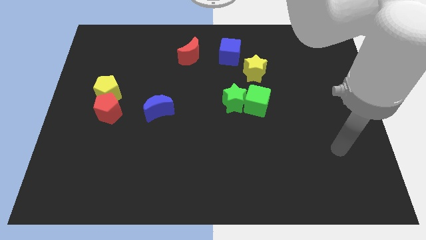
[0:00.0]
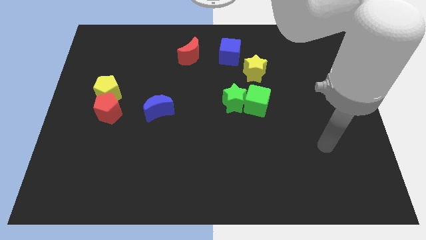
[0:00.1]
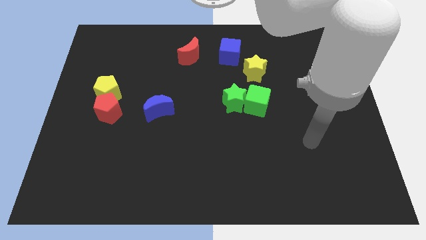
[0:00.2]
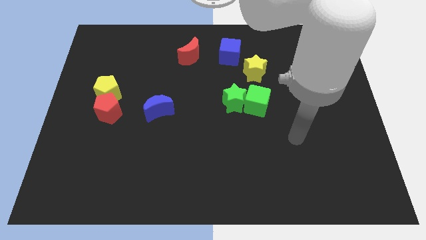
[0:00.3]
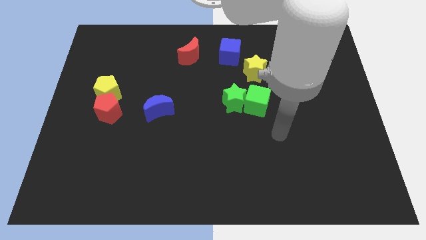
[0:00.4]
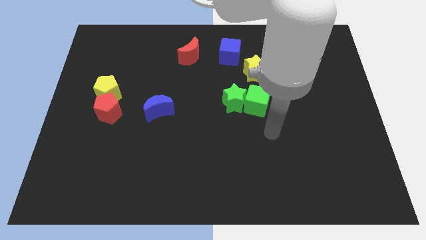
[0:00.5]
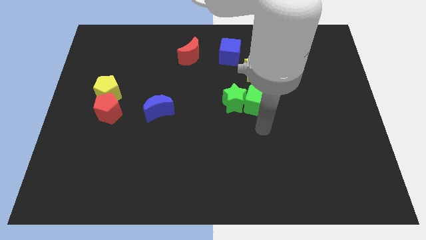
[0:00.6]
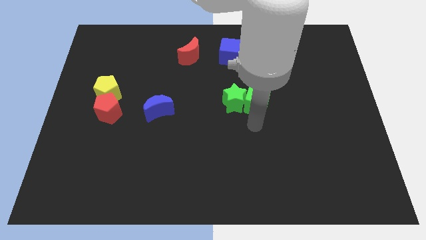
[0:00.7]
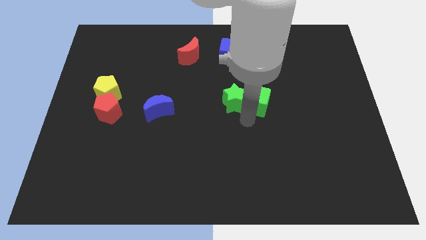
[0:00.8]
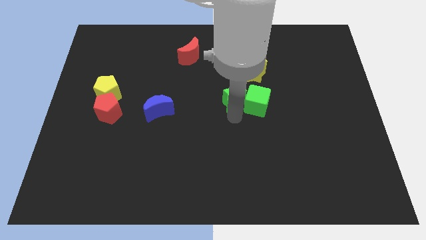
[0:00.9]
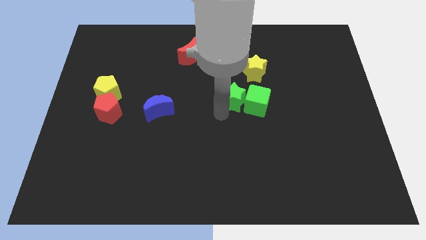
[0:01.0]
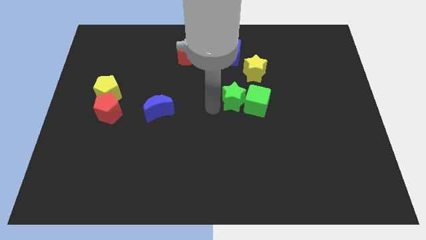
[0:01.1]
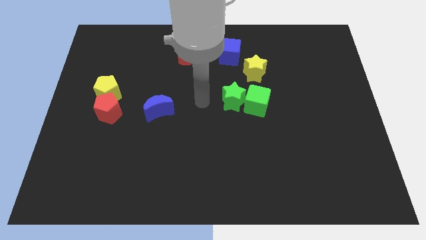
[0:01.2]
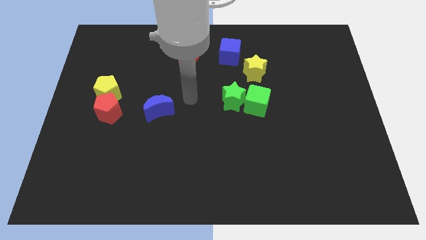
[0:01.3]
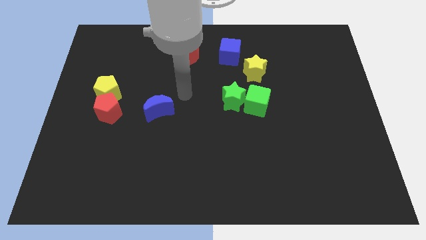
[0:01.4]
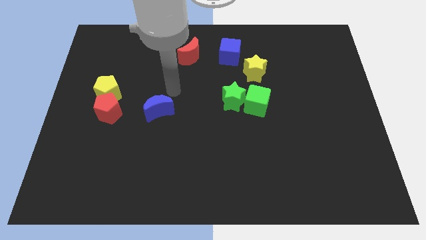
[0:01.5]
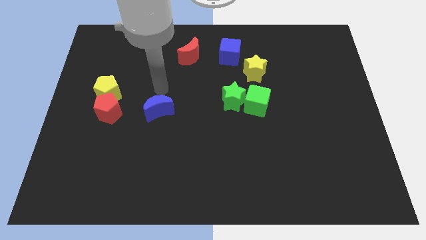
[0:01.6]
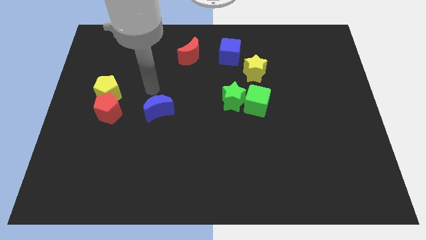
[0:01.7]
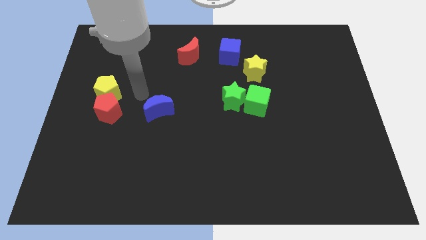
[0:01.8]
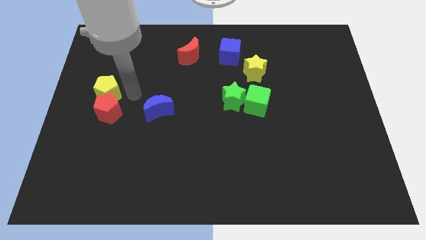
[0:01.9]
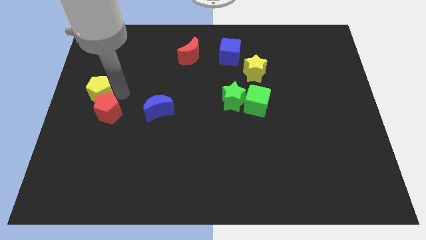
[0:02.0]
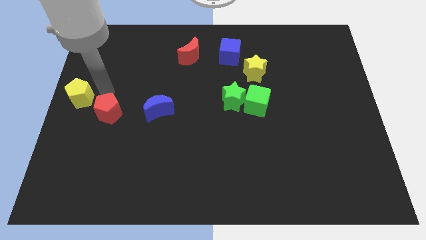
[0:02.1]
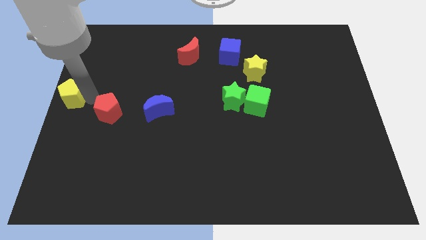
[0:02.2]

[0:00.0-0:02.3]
pull the red pentagon apart from the yellow pentagon

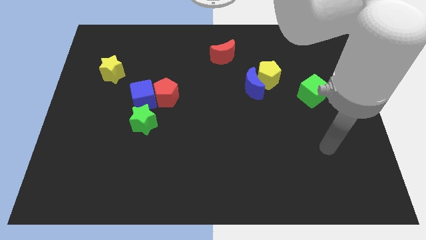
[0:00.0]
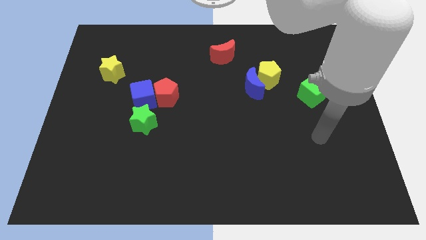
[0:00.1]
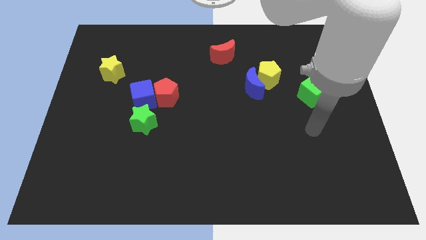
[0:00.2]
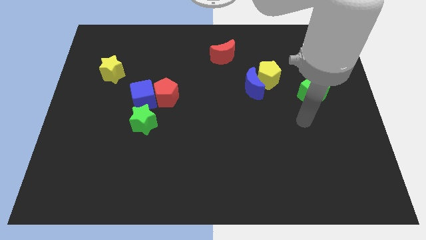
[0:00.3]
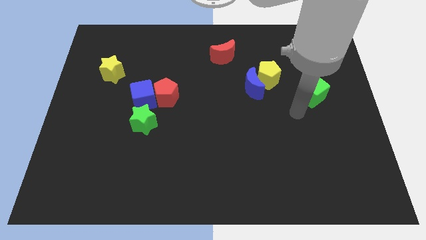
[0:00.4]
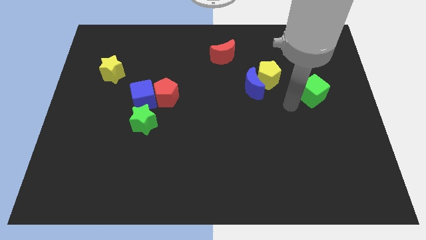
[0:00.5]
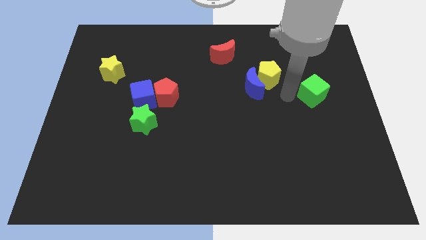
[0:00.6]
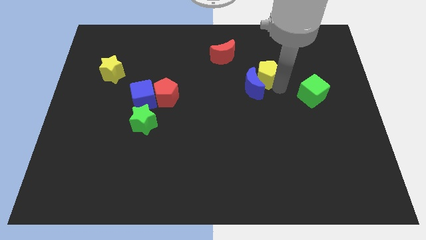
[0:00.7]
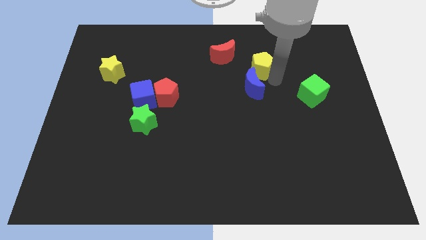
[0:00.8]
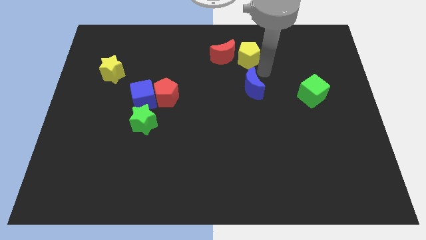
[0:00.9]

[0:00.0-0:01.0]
move the blue moon away from the yellow pentagon

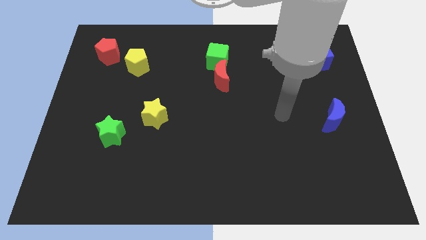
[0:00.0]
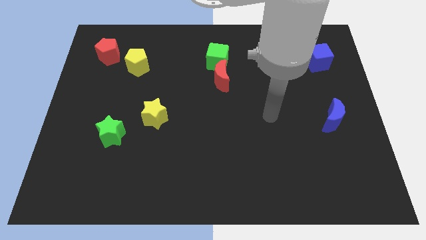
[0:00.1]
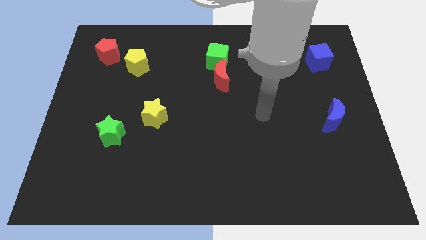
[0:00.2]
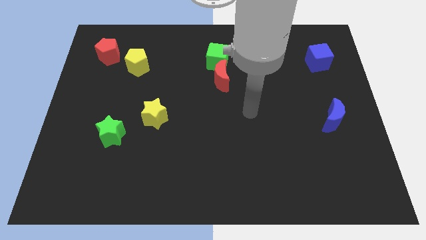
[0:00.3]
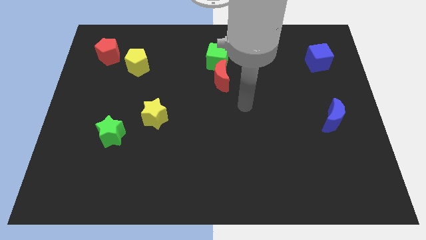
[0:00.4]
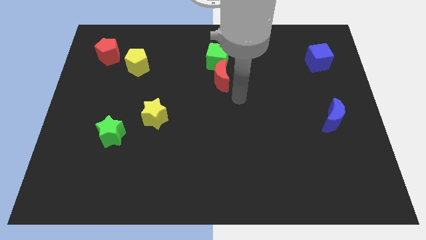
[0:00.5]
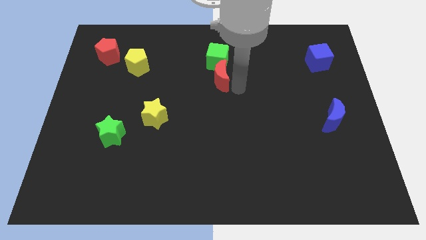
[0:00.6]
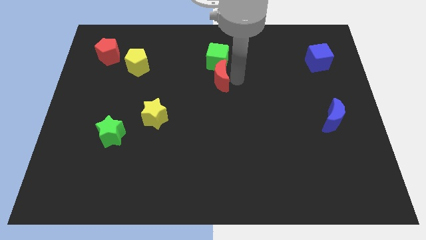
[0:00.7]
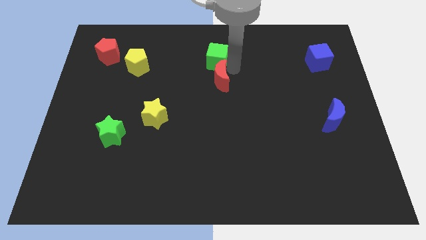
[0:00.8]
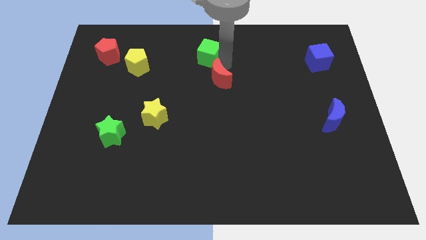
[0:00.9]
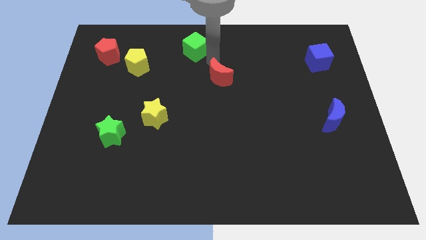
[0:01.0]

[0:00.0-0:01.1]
move the red moon away from the green cube

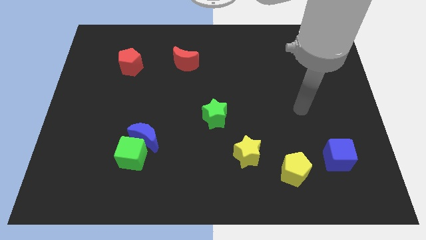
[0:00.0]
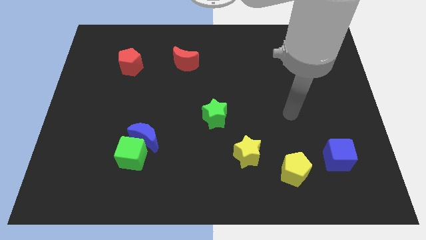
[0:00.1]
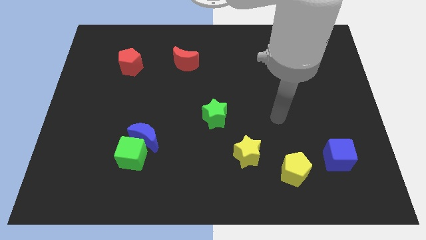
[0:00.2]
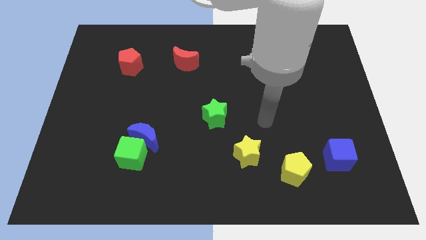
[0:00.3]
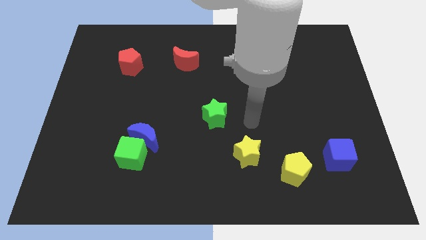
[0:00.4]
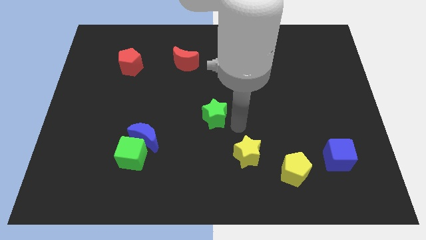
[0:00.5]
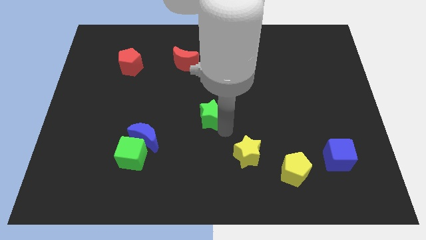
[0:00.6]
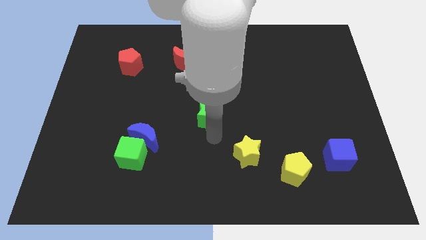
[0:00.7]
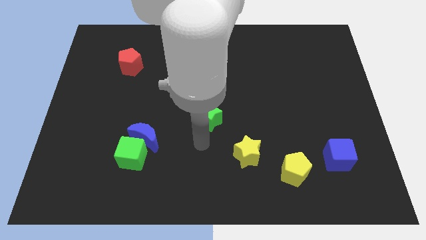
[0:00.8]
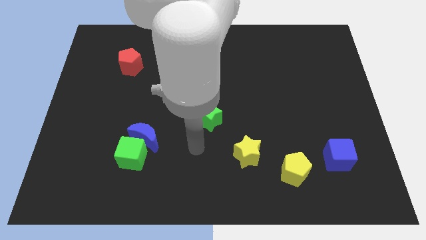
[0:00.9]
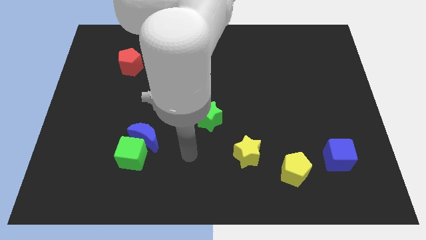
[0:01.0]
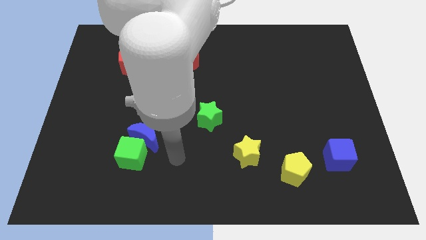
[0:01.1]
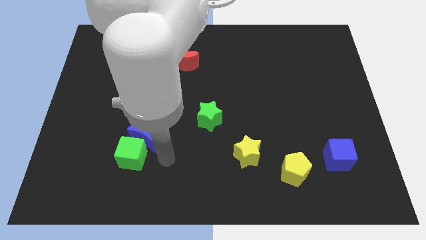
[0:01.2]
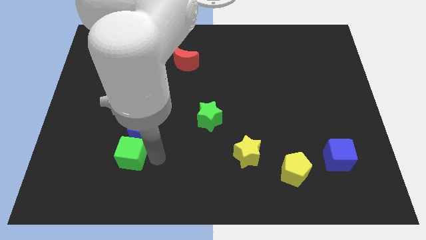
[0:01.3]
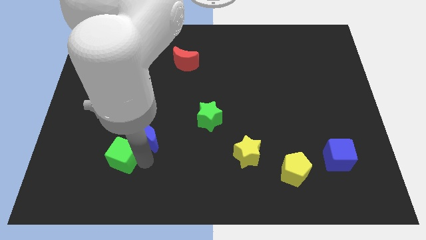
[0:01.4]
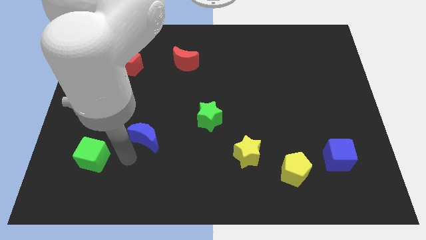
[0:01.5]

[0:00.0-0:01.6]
separate the blue moon from the green cube

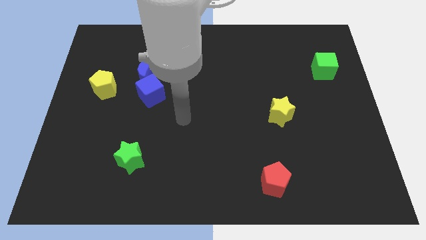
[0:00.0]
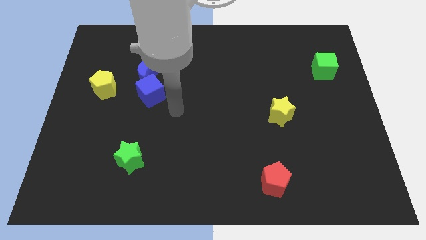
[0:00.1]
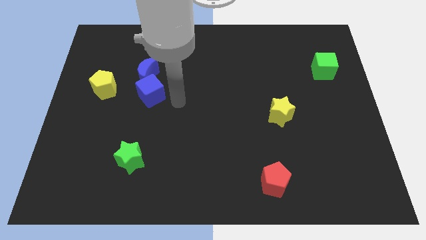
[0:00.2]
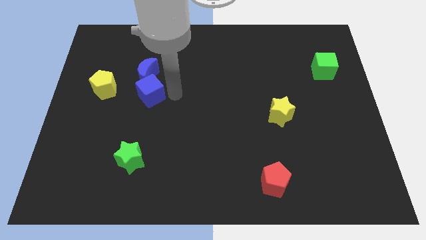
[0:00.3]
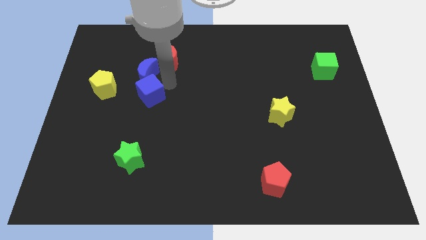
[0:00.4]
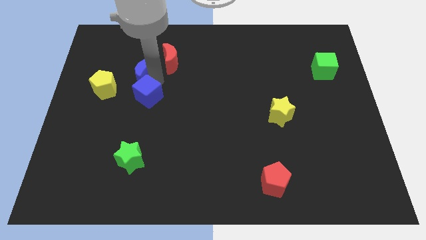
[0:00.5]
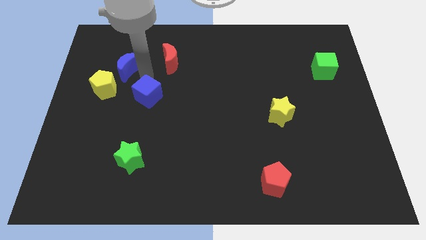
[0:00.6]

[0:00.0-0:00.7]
move the blue cube away from the blue moon

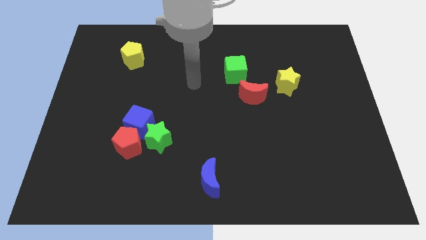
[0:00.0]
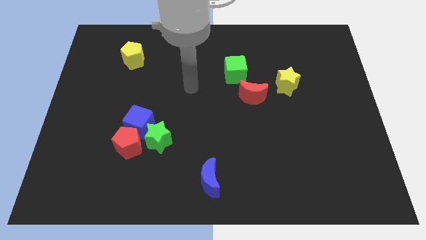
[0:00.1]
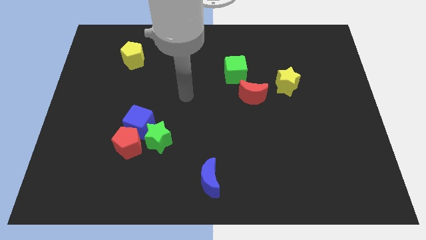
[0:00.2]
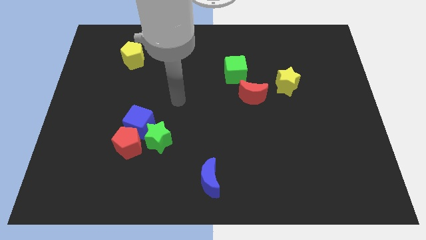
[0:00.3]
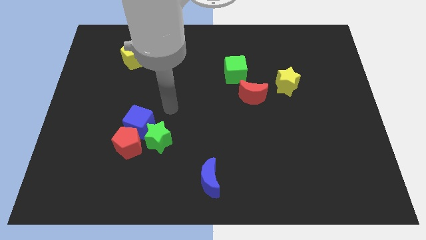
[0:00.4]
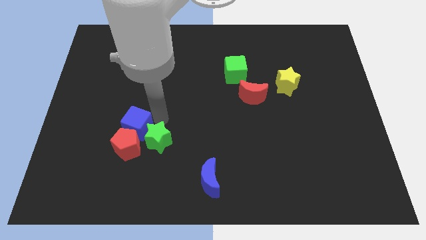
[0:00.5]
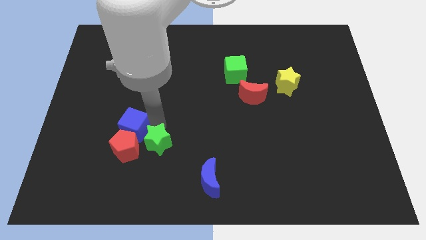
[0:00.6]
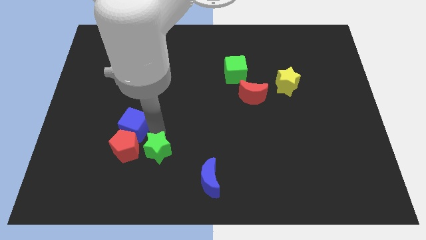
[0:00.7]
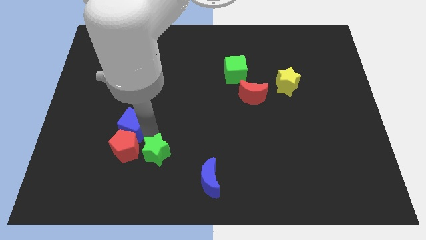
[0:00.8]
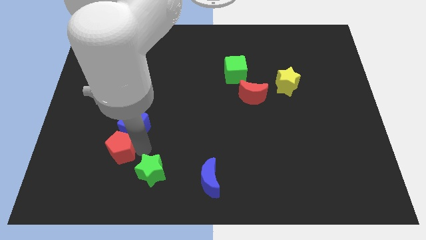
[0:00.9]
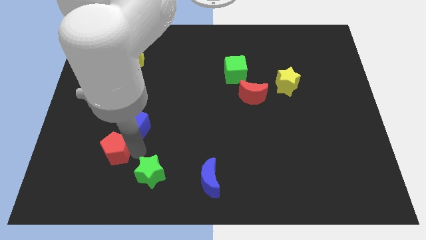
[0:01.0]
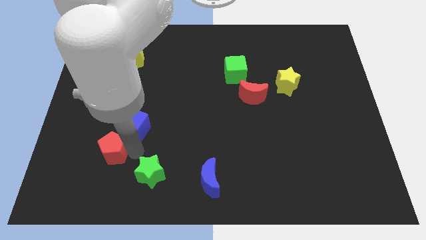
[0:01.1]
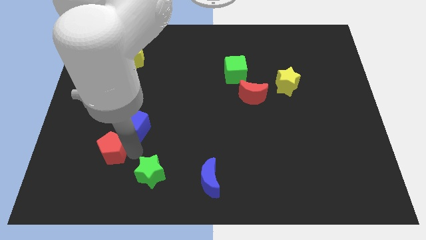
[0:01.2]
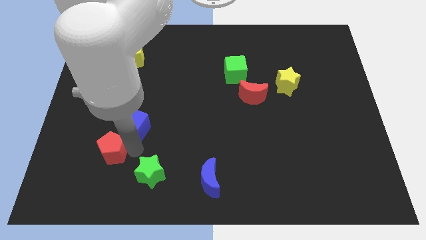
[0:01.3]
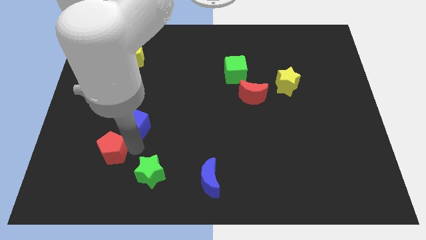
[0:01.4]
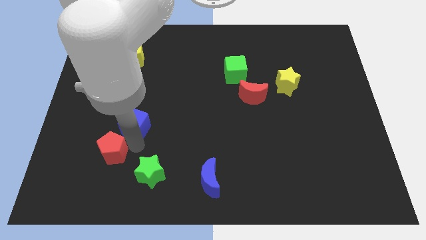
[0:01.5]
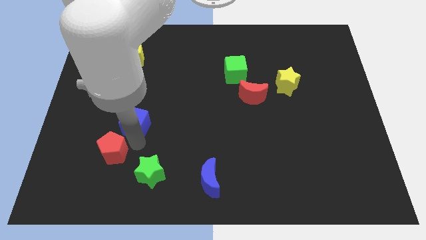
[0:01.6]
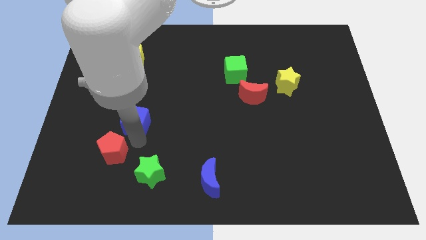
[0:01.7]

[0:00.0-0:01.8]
pull the blue cube apart from the red pentagon and green star

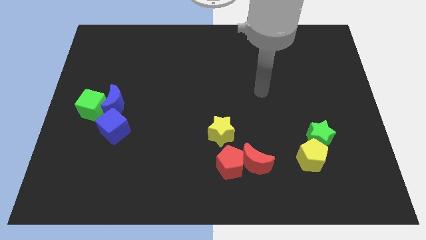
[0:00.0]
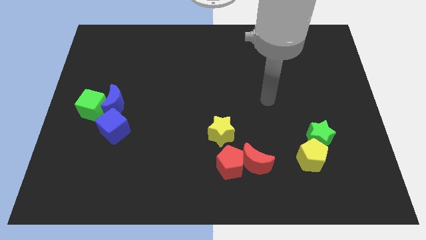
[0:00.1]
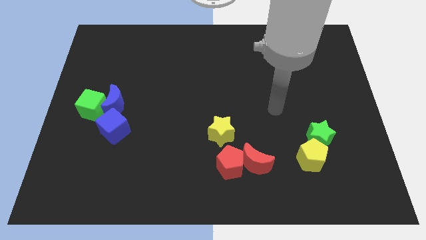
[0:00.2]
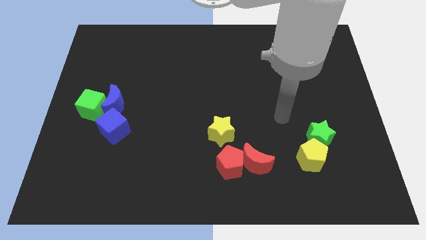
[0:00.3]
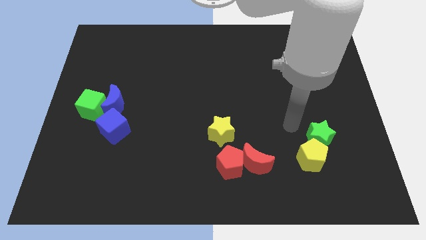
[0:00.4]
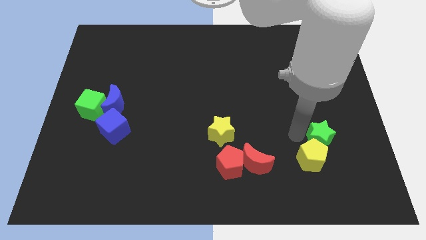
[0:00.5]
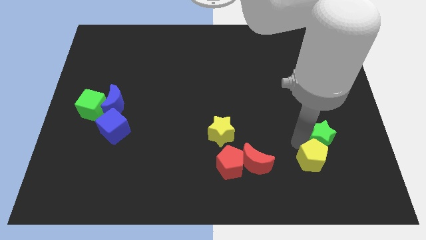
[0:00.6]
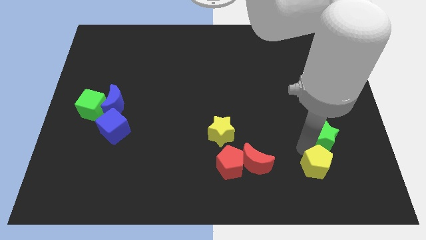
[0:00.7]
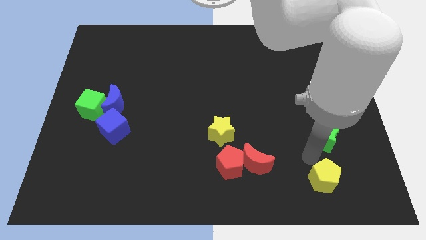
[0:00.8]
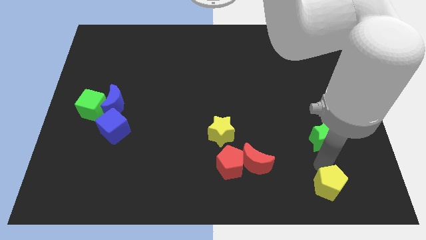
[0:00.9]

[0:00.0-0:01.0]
separate the green star from the yellow pentagon
